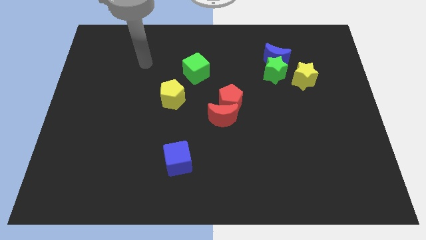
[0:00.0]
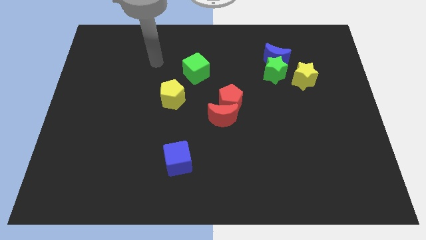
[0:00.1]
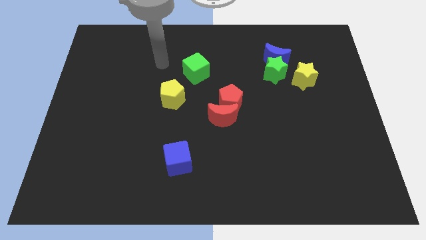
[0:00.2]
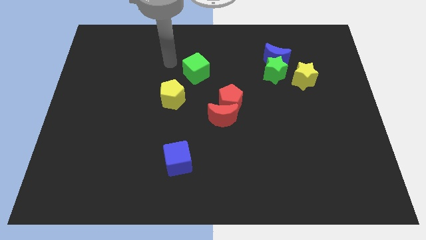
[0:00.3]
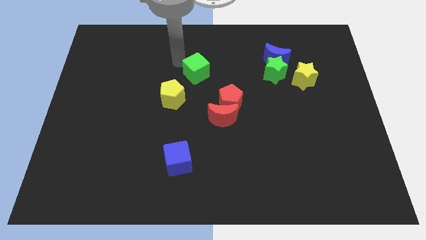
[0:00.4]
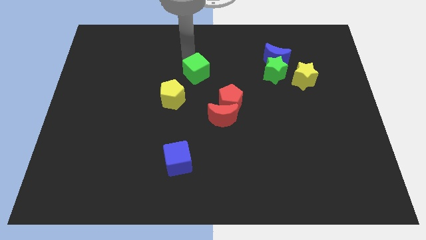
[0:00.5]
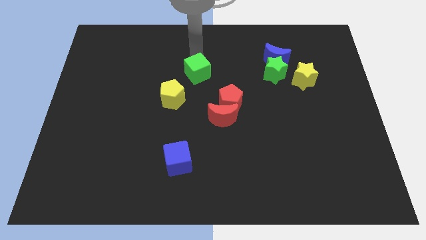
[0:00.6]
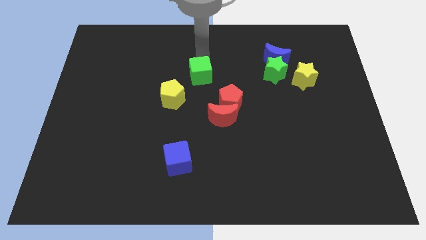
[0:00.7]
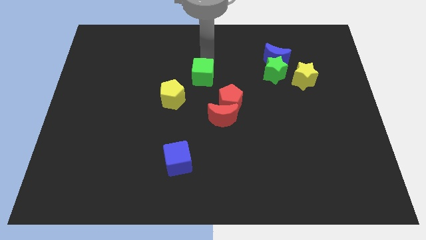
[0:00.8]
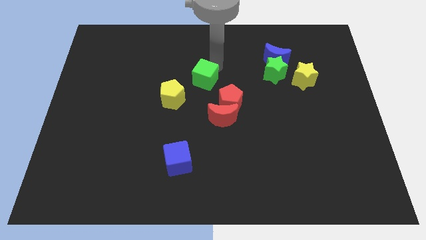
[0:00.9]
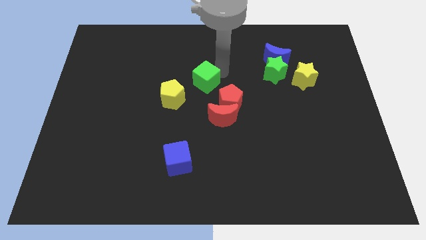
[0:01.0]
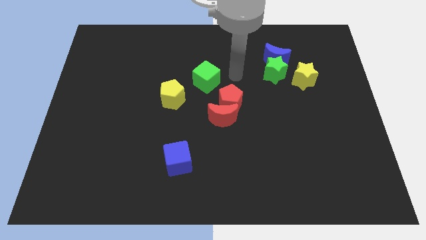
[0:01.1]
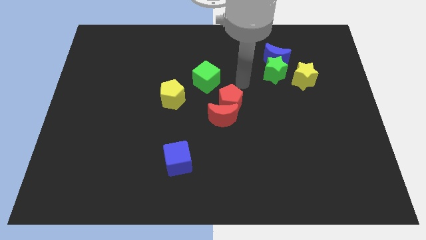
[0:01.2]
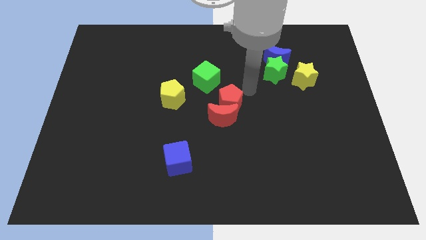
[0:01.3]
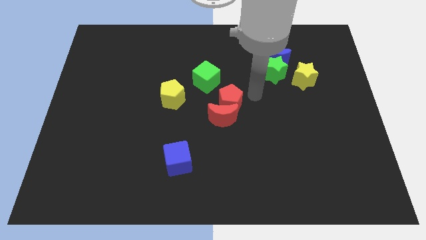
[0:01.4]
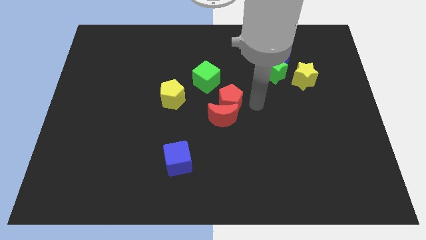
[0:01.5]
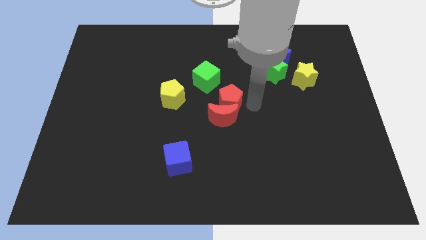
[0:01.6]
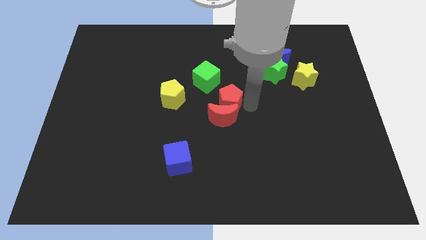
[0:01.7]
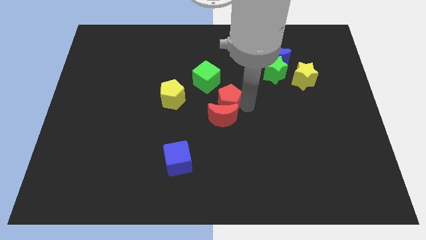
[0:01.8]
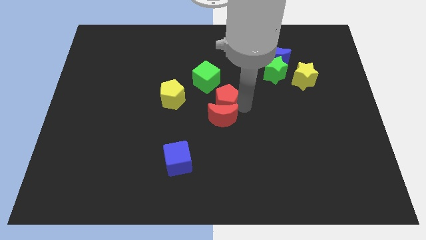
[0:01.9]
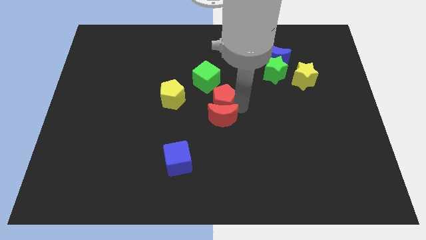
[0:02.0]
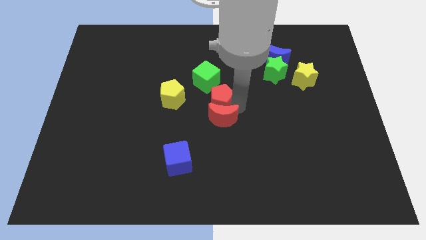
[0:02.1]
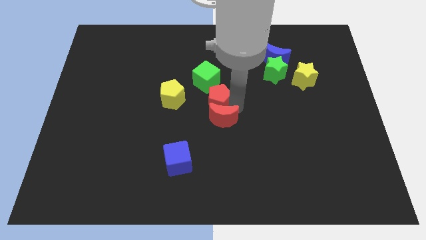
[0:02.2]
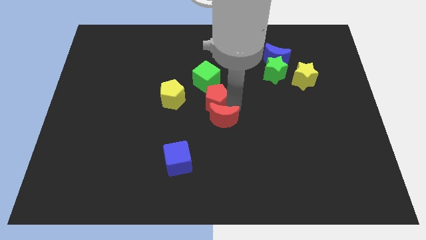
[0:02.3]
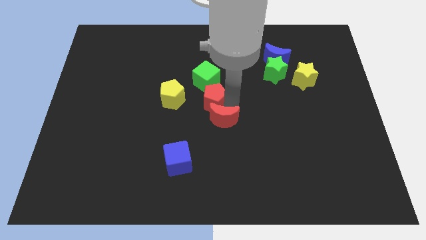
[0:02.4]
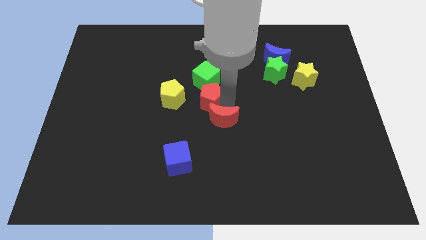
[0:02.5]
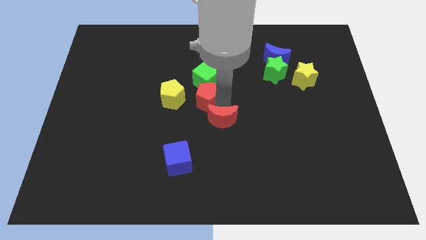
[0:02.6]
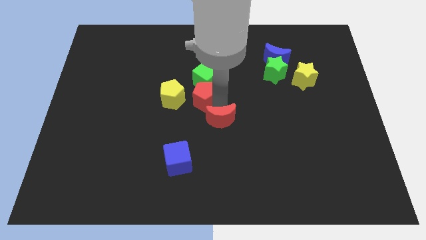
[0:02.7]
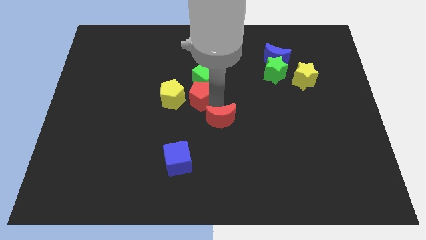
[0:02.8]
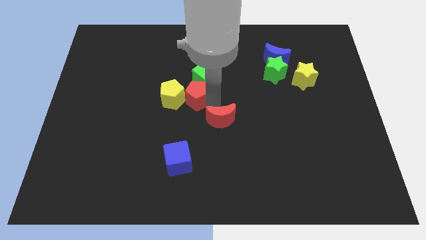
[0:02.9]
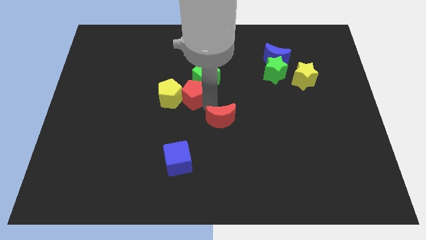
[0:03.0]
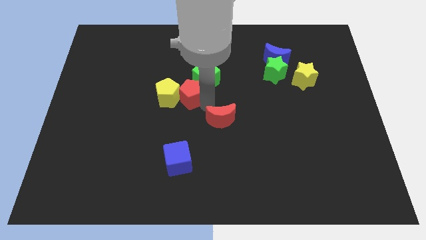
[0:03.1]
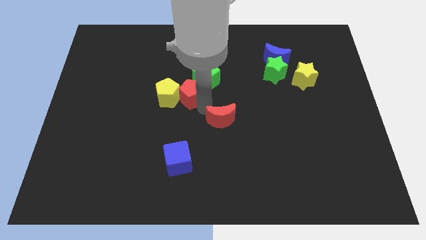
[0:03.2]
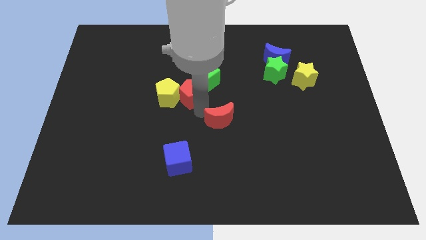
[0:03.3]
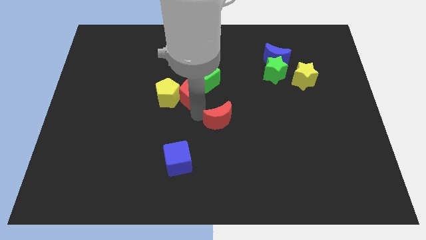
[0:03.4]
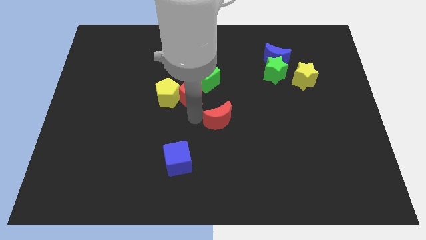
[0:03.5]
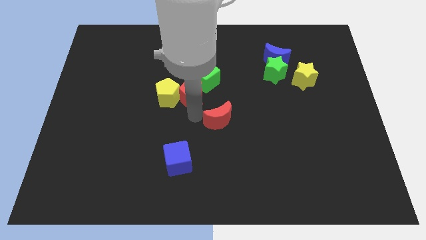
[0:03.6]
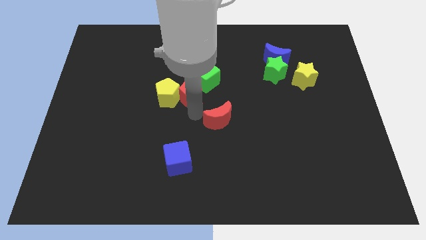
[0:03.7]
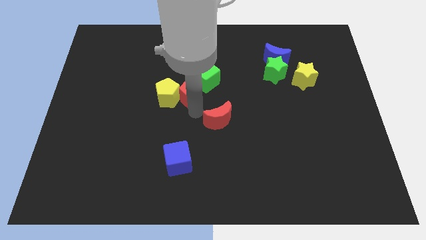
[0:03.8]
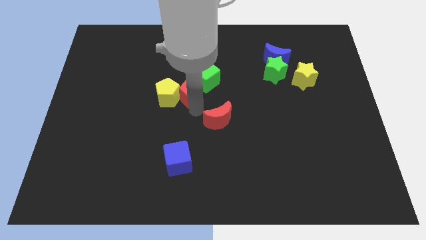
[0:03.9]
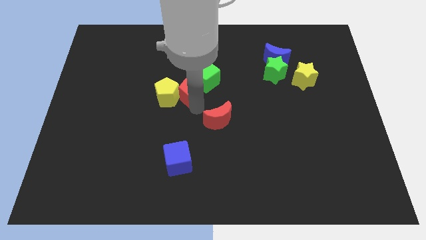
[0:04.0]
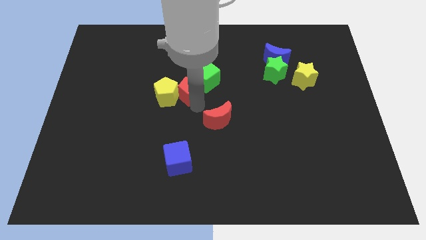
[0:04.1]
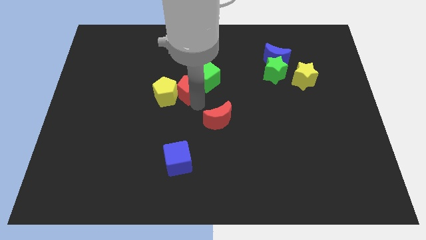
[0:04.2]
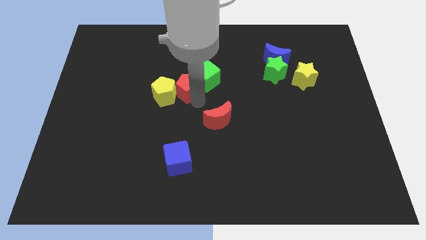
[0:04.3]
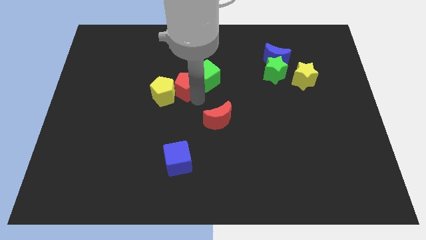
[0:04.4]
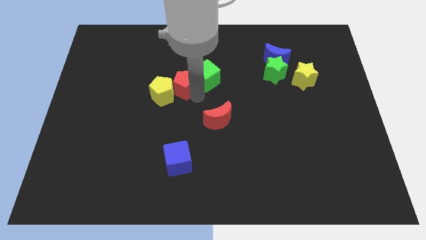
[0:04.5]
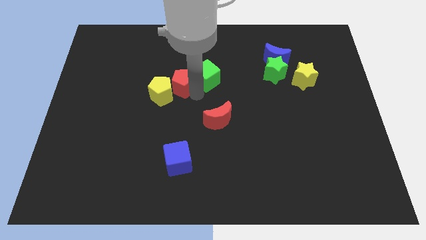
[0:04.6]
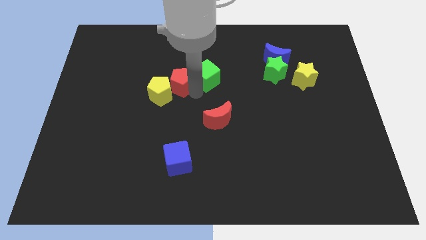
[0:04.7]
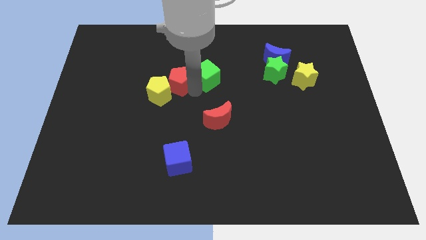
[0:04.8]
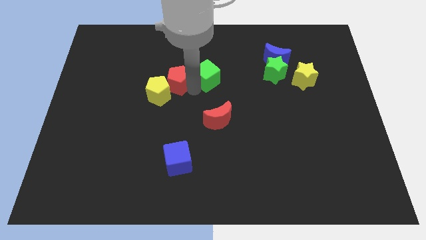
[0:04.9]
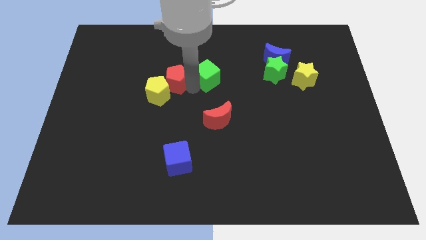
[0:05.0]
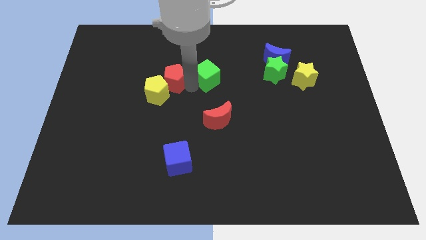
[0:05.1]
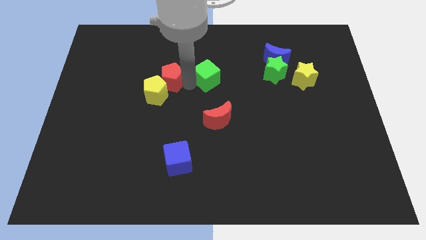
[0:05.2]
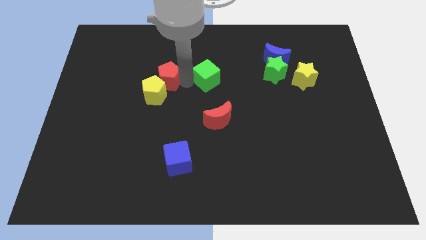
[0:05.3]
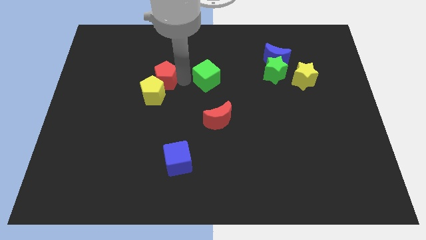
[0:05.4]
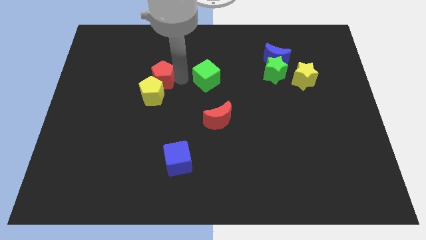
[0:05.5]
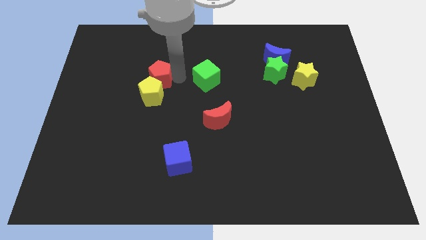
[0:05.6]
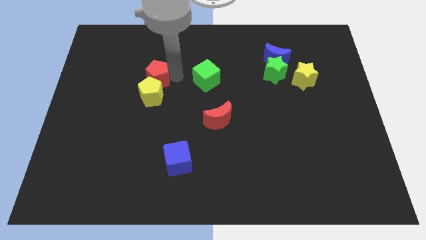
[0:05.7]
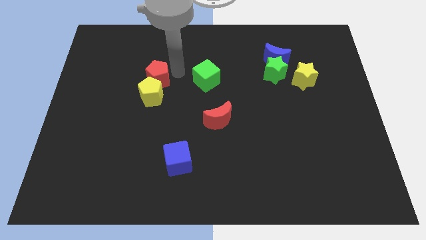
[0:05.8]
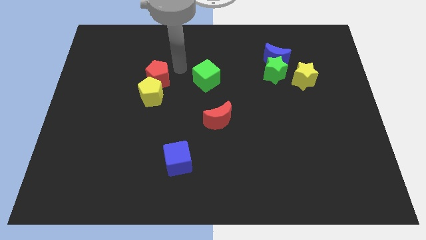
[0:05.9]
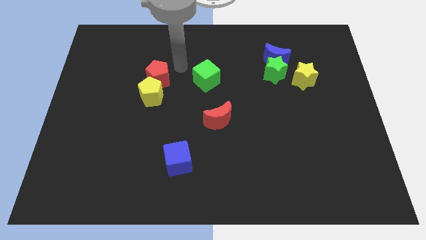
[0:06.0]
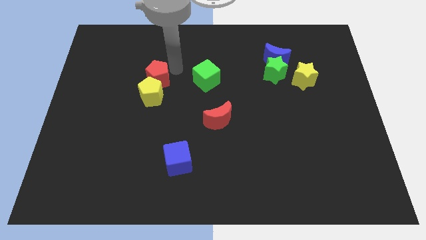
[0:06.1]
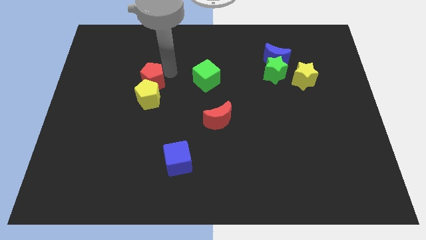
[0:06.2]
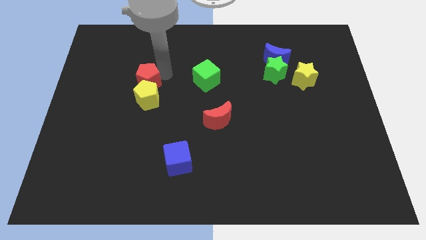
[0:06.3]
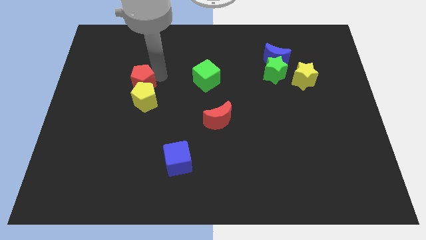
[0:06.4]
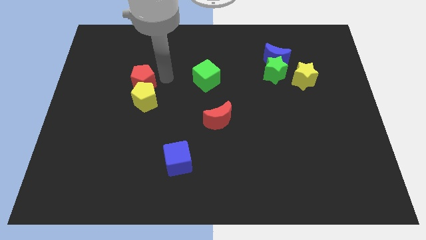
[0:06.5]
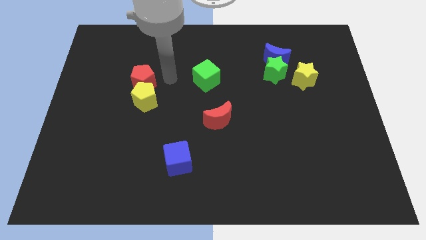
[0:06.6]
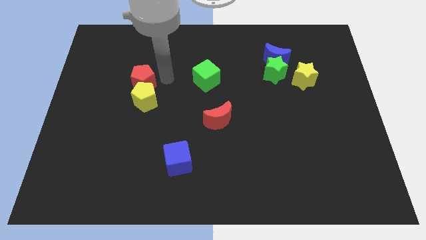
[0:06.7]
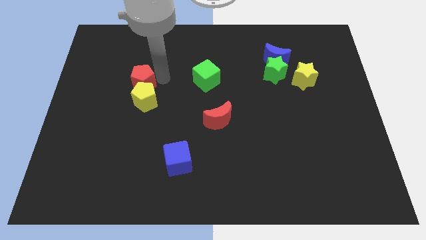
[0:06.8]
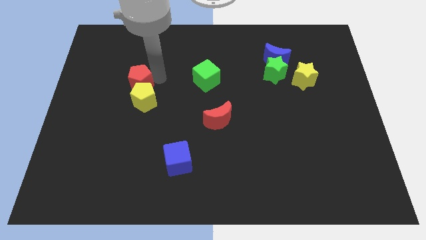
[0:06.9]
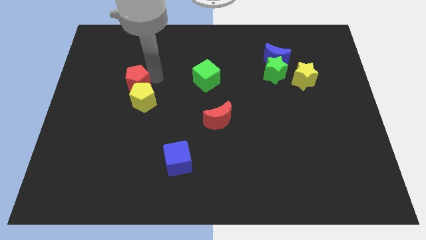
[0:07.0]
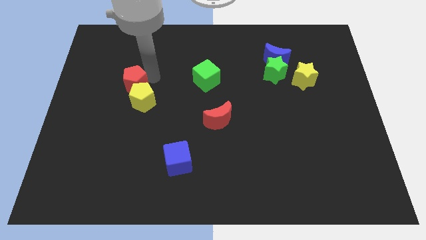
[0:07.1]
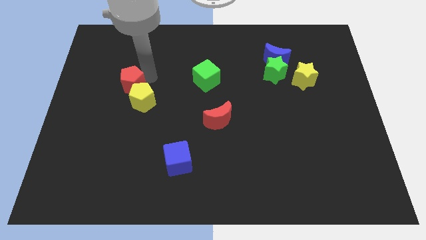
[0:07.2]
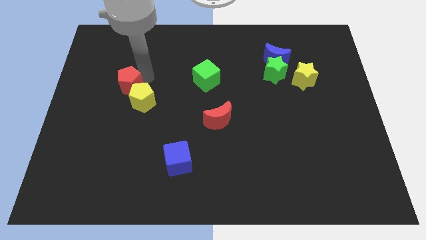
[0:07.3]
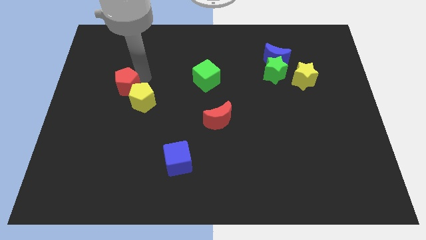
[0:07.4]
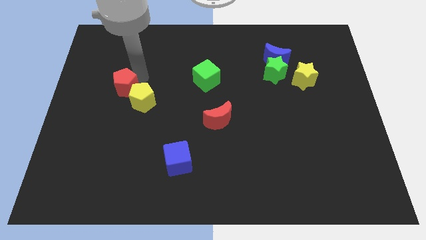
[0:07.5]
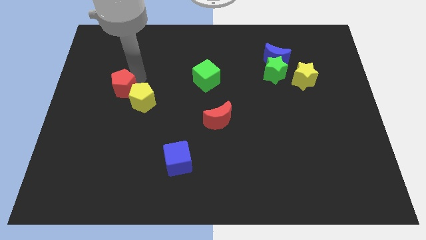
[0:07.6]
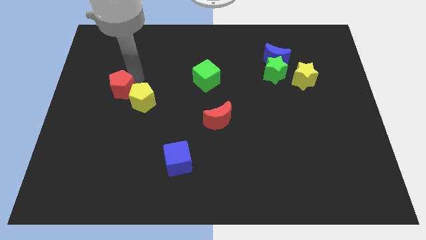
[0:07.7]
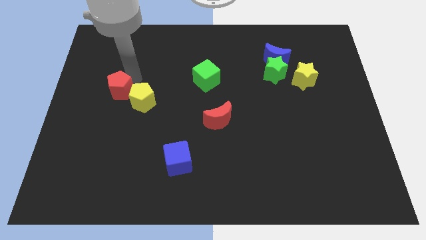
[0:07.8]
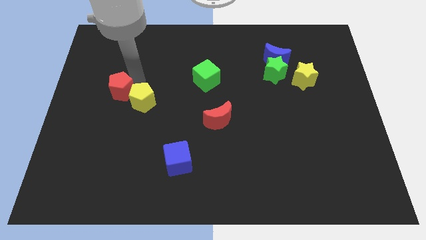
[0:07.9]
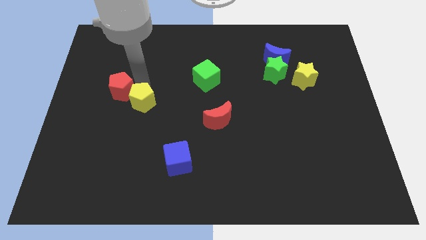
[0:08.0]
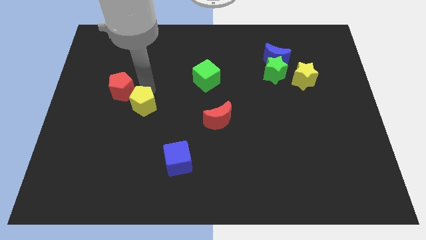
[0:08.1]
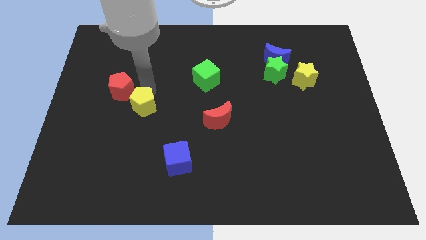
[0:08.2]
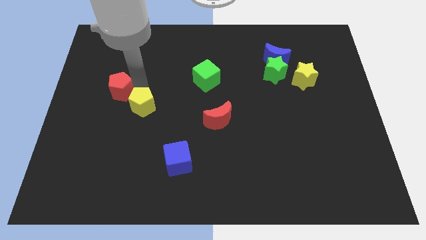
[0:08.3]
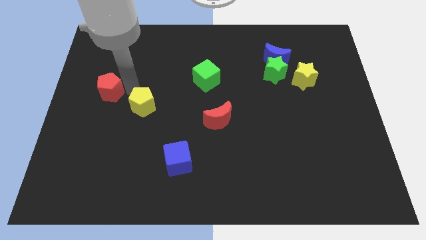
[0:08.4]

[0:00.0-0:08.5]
move the red pentagon to the left side
